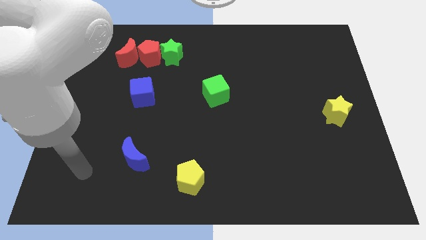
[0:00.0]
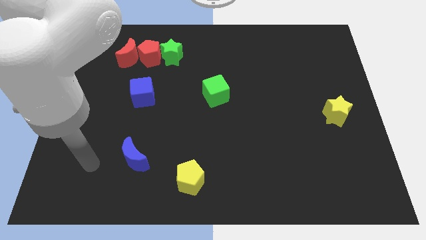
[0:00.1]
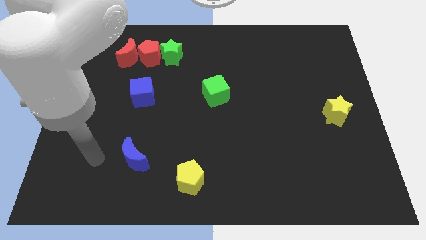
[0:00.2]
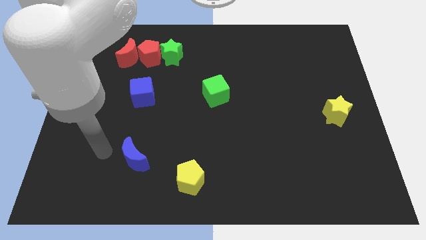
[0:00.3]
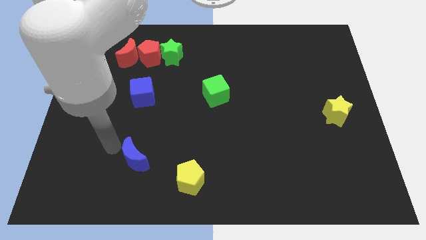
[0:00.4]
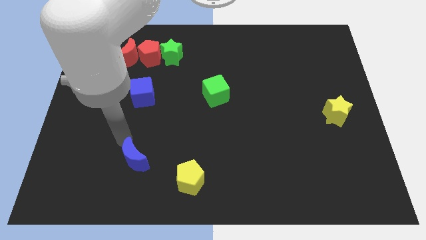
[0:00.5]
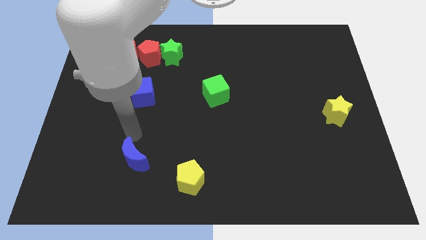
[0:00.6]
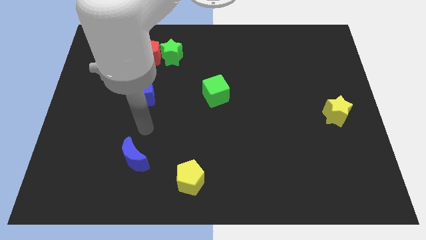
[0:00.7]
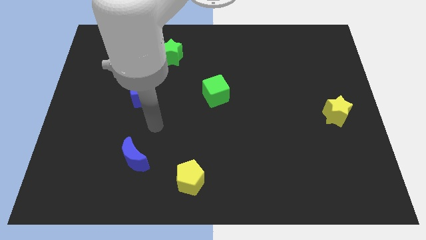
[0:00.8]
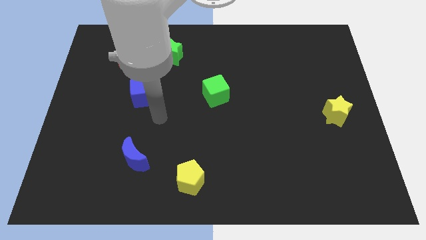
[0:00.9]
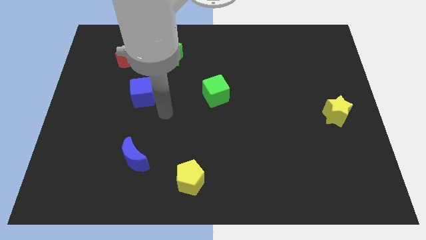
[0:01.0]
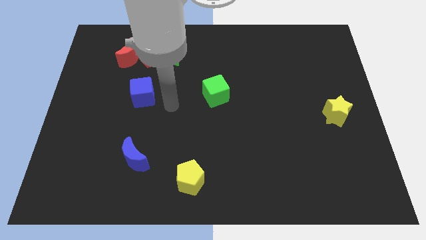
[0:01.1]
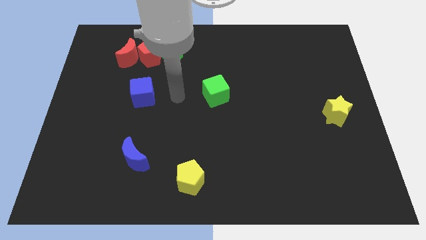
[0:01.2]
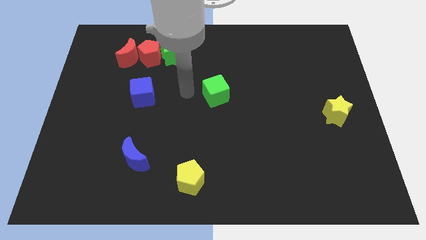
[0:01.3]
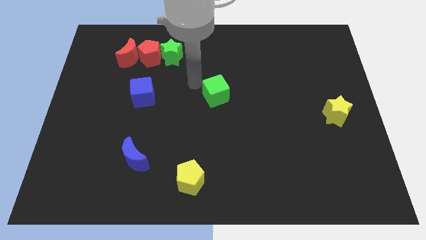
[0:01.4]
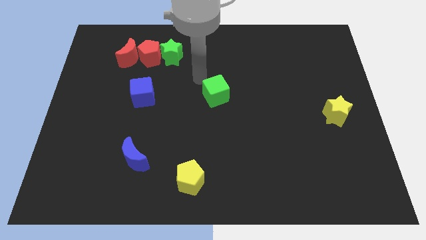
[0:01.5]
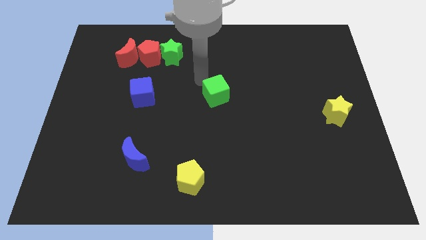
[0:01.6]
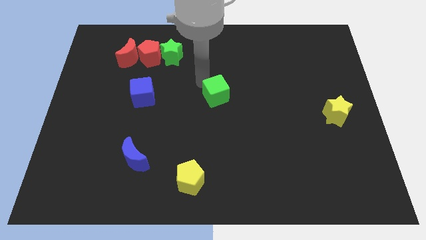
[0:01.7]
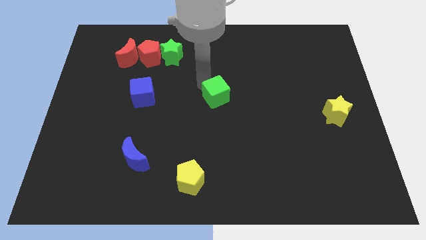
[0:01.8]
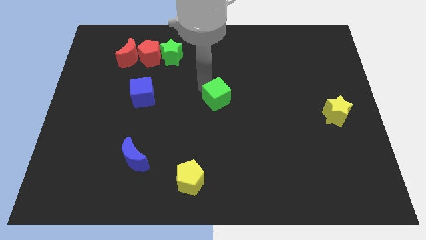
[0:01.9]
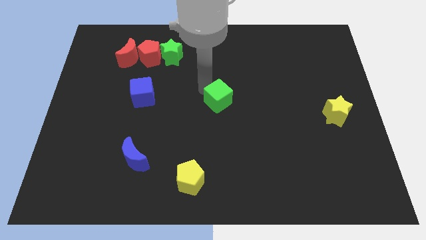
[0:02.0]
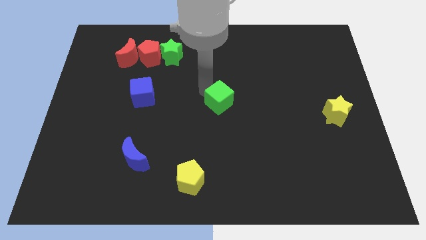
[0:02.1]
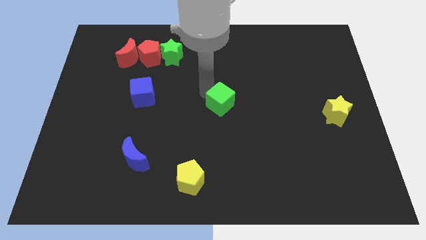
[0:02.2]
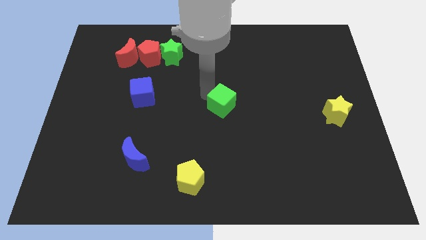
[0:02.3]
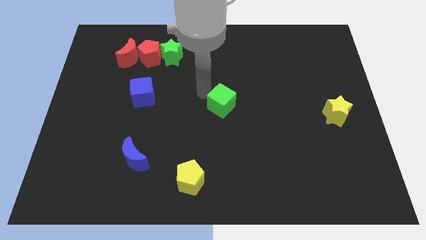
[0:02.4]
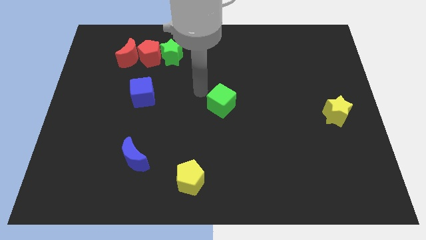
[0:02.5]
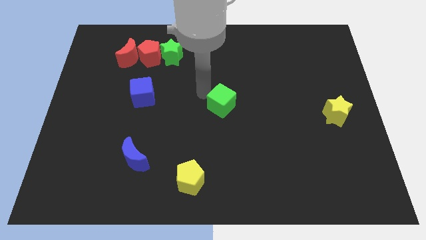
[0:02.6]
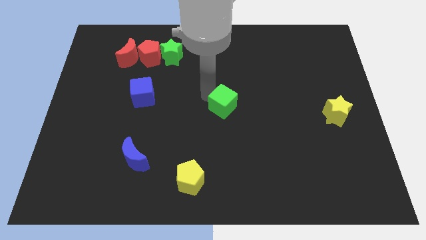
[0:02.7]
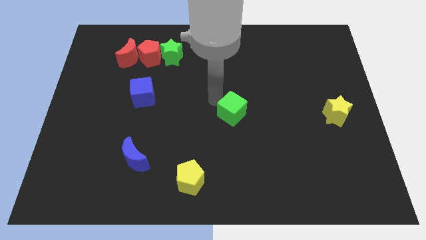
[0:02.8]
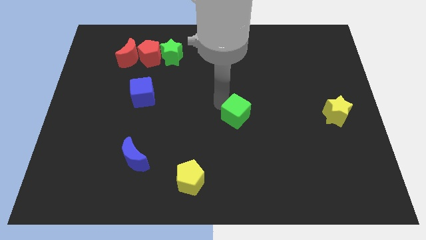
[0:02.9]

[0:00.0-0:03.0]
slightly move the green cube down and right

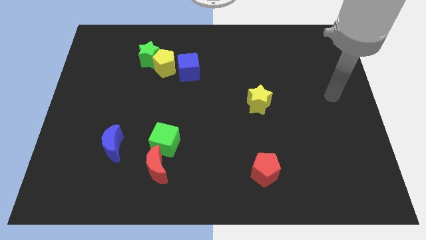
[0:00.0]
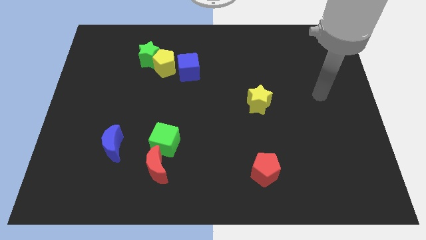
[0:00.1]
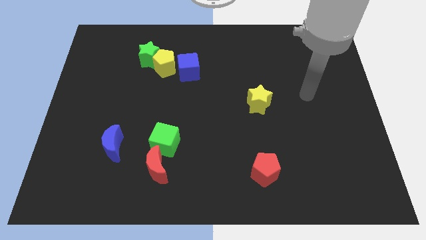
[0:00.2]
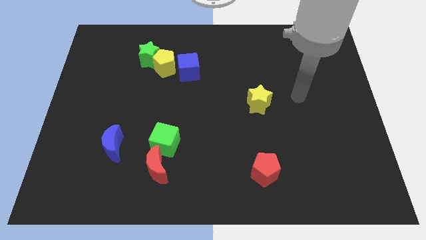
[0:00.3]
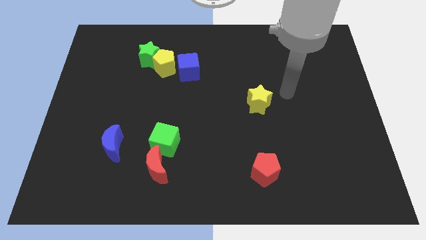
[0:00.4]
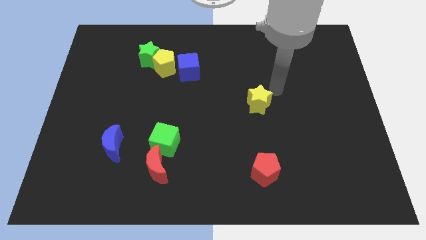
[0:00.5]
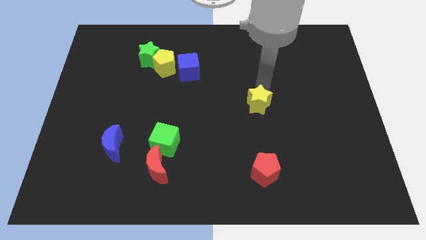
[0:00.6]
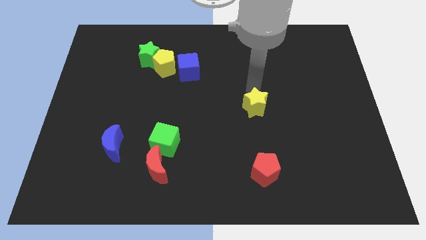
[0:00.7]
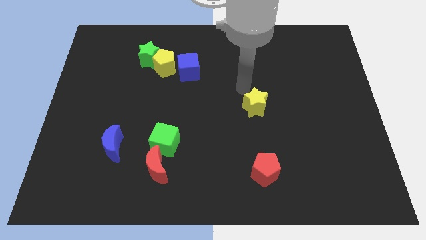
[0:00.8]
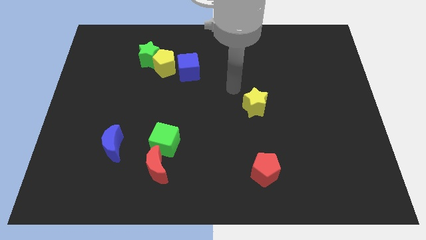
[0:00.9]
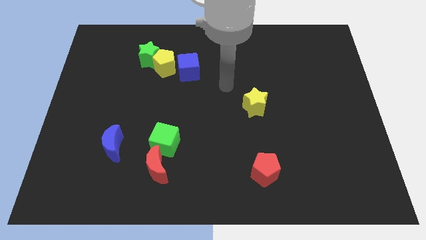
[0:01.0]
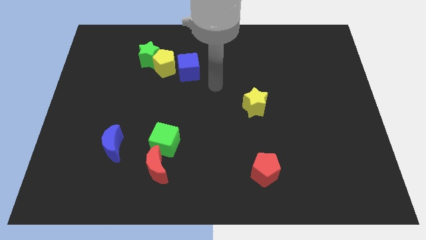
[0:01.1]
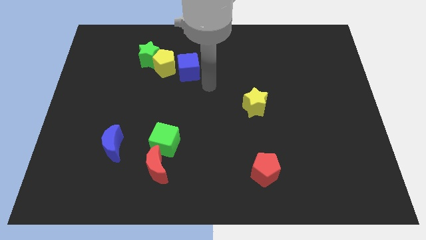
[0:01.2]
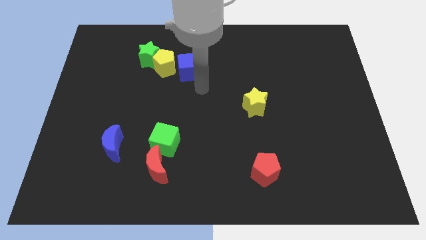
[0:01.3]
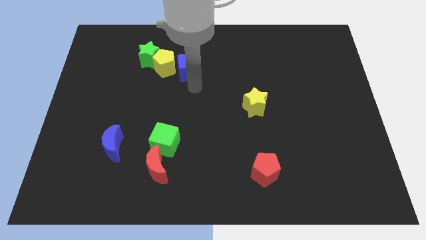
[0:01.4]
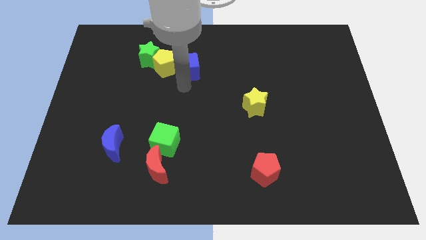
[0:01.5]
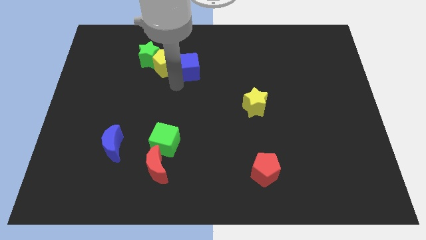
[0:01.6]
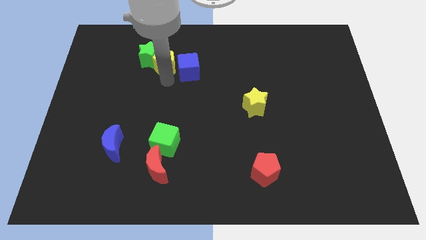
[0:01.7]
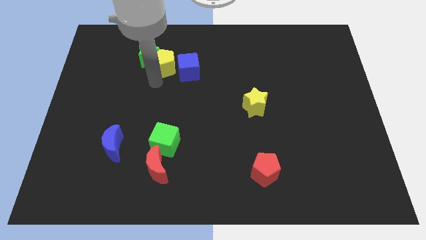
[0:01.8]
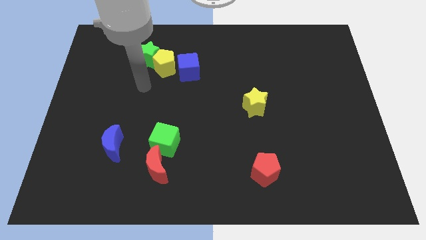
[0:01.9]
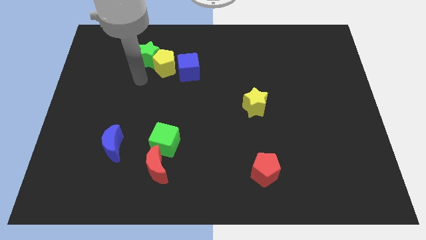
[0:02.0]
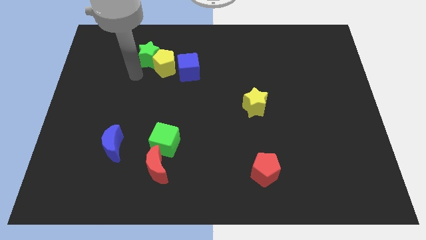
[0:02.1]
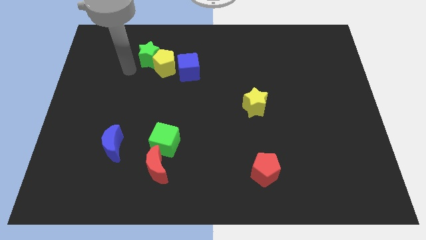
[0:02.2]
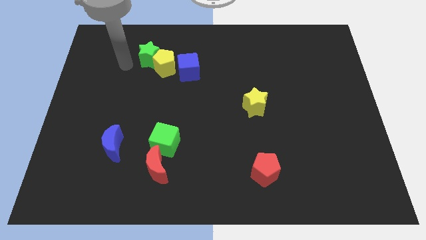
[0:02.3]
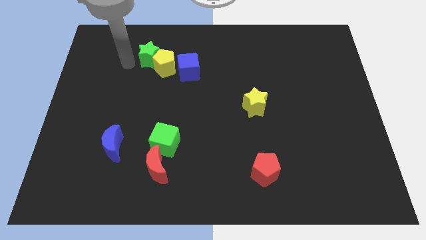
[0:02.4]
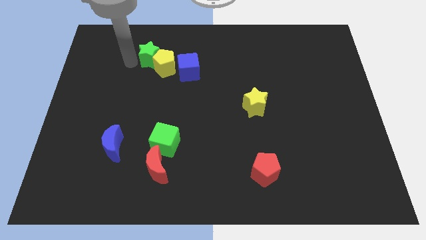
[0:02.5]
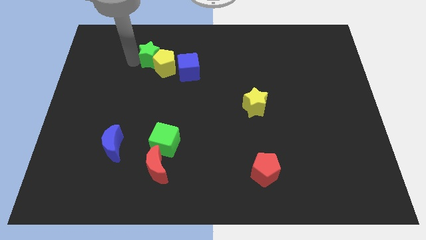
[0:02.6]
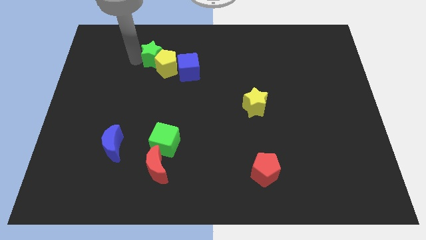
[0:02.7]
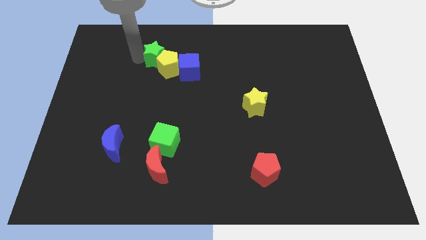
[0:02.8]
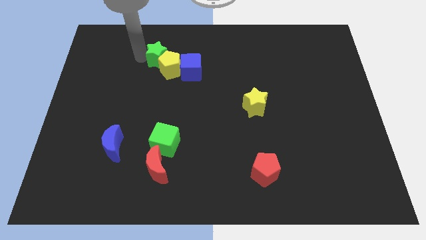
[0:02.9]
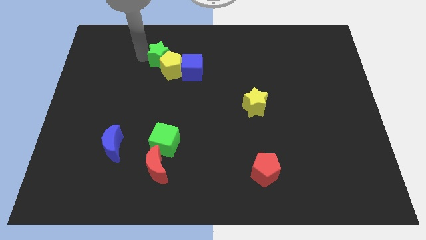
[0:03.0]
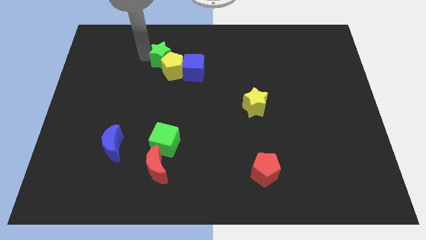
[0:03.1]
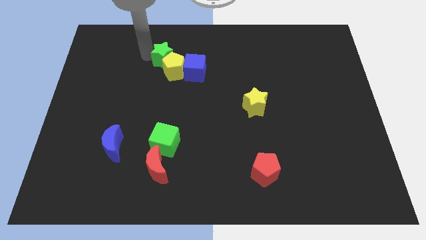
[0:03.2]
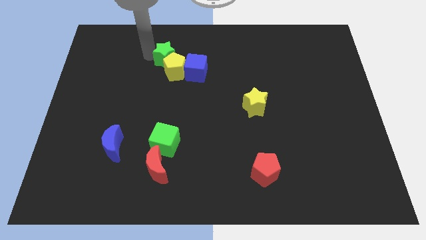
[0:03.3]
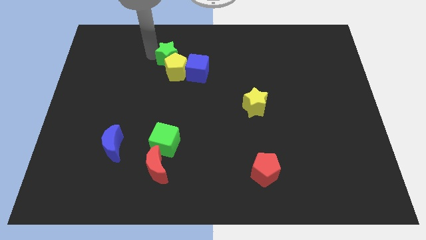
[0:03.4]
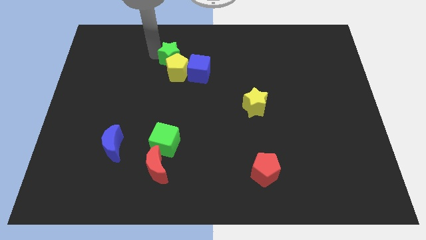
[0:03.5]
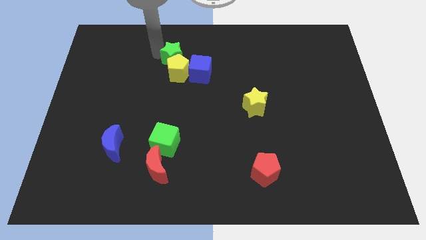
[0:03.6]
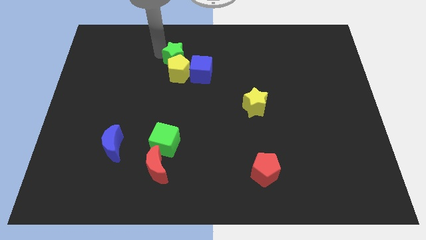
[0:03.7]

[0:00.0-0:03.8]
slightly push the green star right

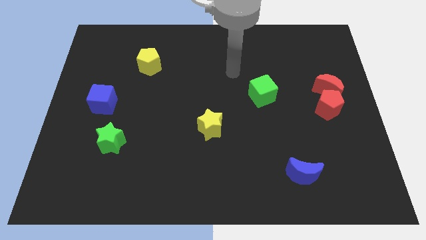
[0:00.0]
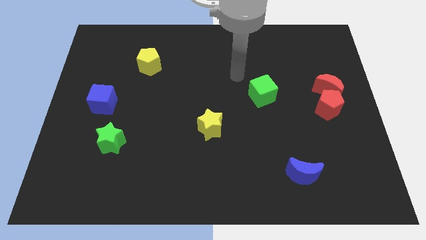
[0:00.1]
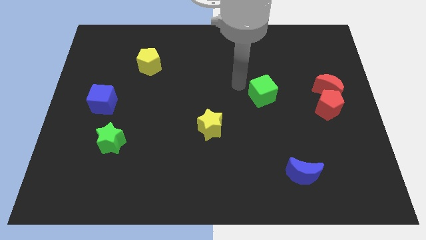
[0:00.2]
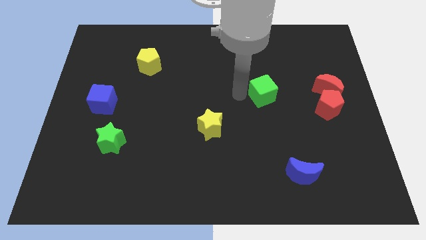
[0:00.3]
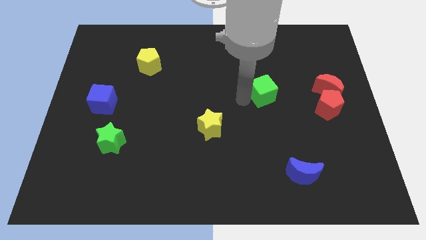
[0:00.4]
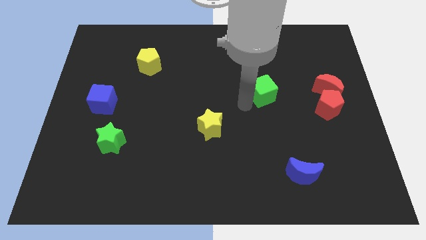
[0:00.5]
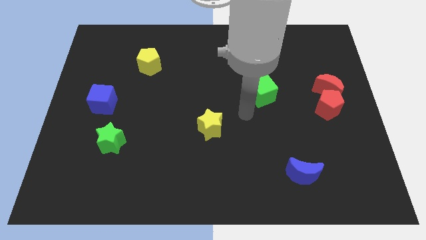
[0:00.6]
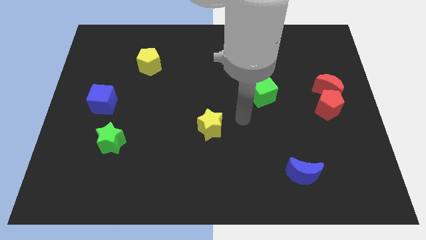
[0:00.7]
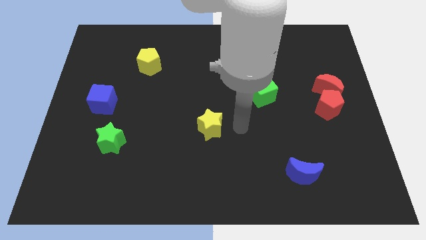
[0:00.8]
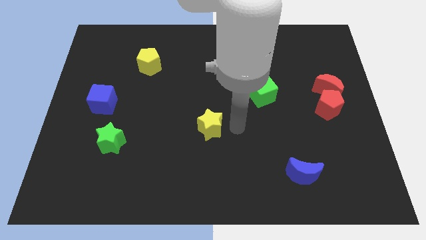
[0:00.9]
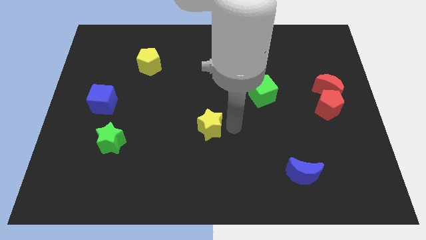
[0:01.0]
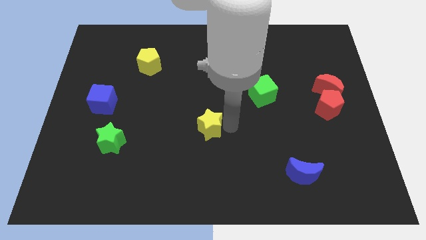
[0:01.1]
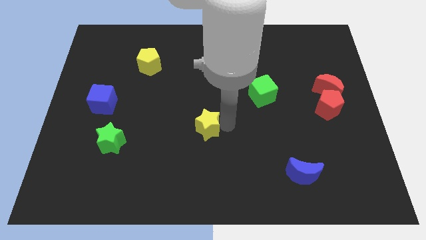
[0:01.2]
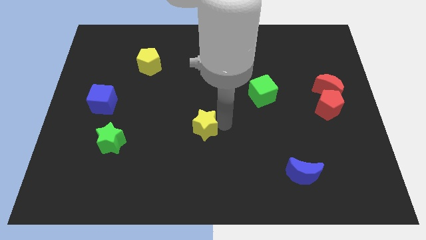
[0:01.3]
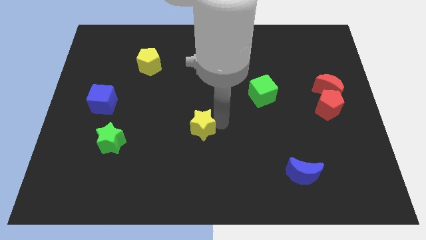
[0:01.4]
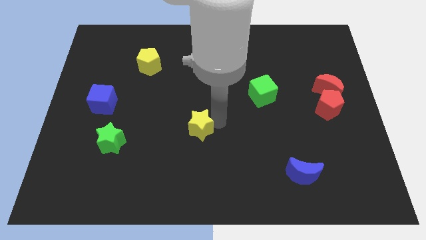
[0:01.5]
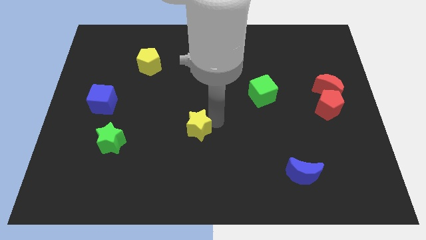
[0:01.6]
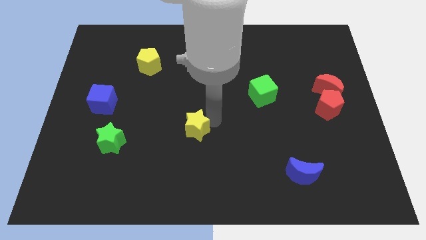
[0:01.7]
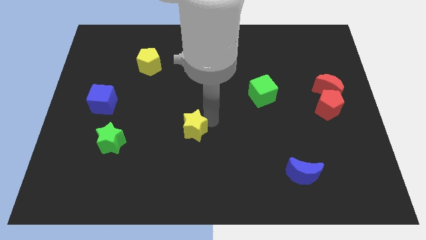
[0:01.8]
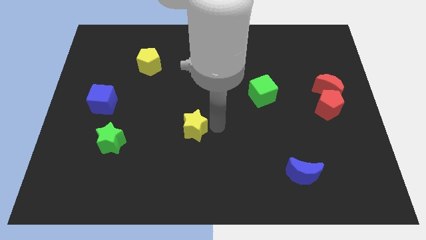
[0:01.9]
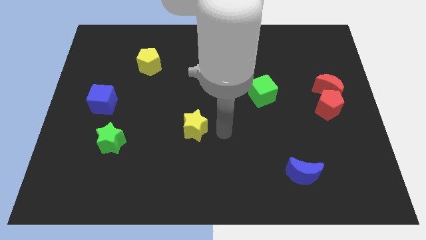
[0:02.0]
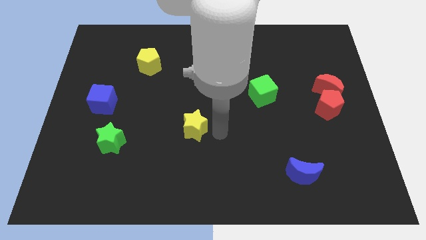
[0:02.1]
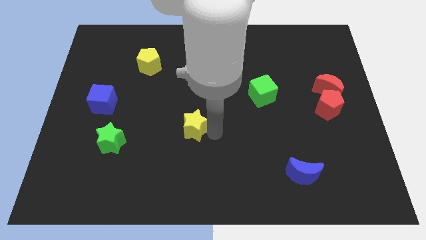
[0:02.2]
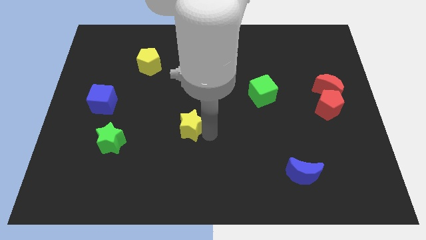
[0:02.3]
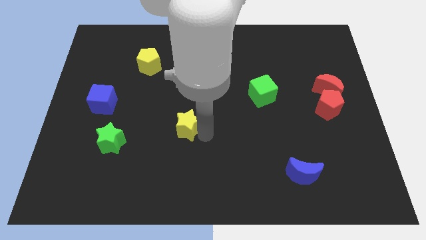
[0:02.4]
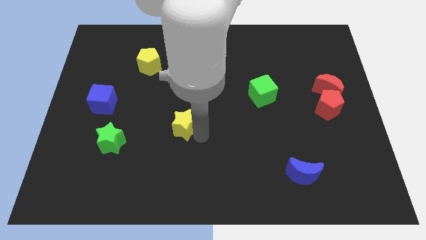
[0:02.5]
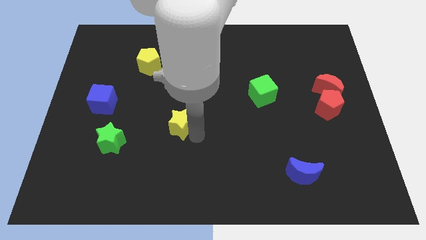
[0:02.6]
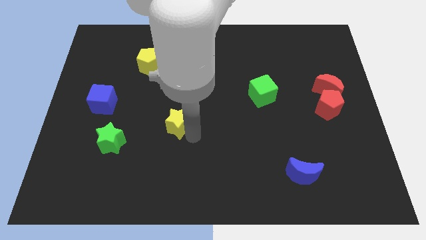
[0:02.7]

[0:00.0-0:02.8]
slightly move the yellow star to the left
